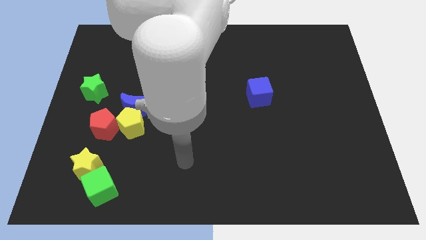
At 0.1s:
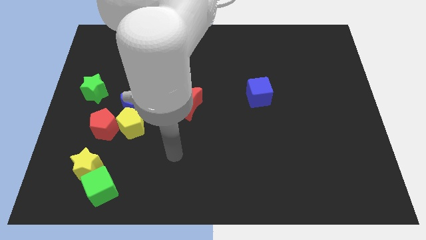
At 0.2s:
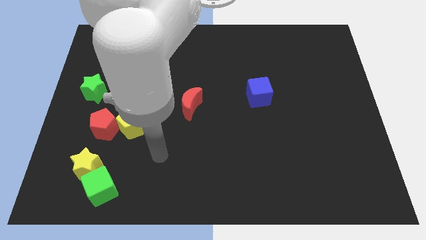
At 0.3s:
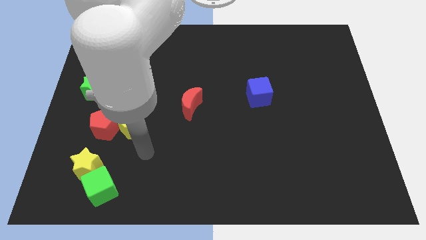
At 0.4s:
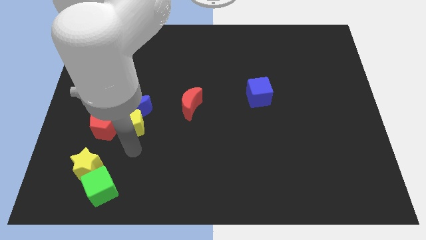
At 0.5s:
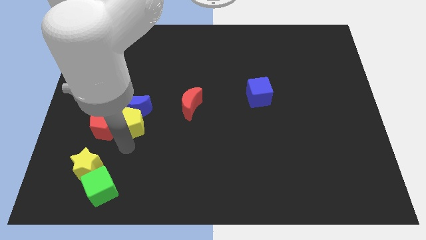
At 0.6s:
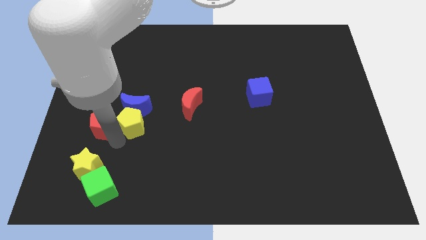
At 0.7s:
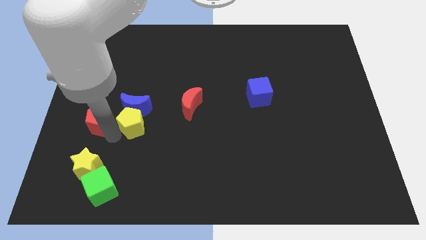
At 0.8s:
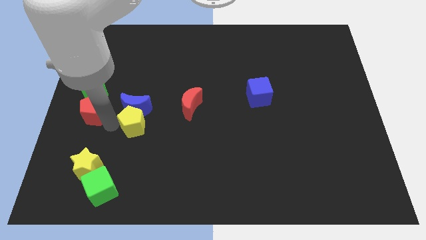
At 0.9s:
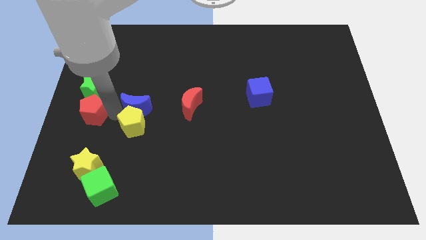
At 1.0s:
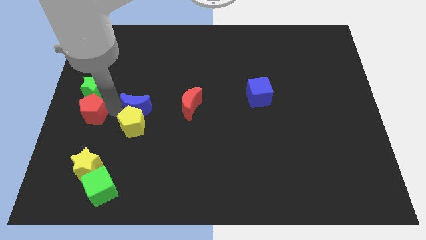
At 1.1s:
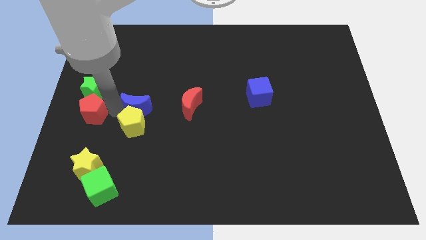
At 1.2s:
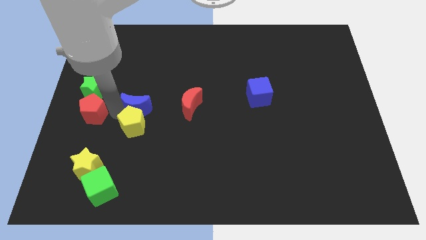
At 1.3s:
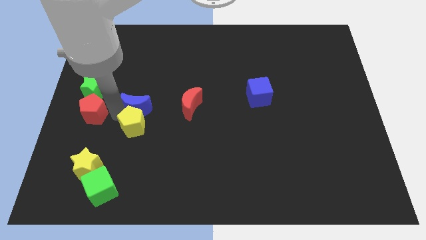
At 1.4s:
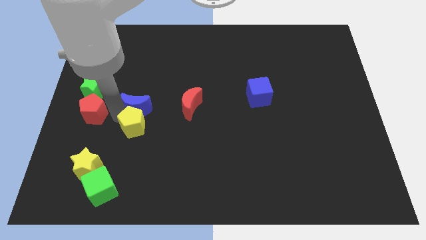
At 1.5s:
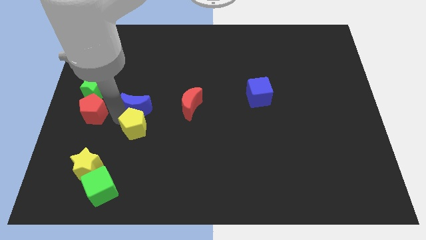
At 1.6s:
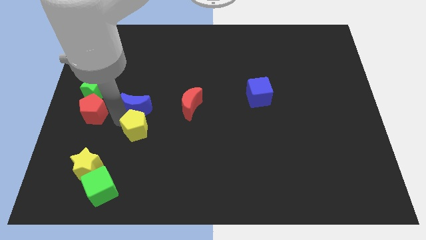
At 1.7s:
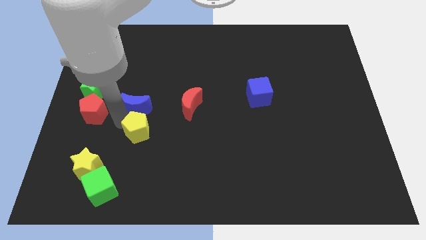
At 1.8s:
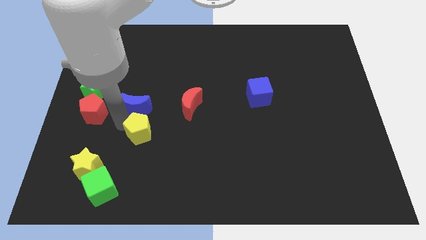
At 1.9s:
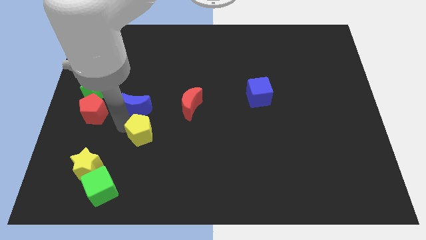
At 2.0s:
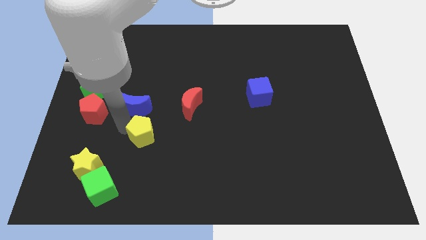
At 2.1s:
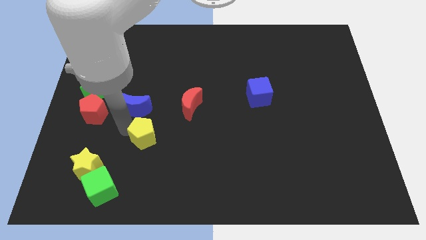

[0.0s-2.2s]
move the yellow pentagon away from the blue moon and red pentagon

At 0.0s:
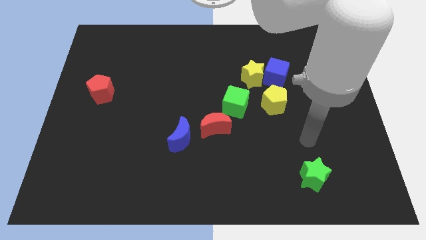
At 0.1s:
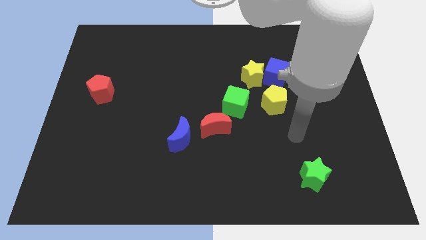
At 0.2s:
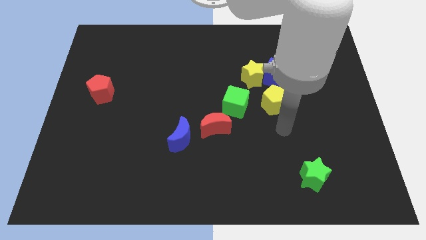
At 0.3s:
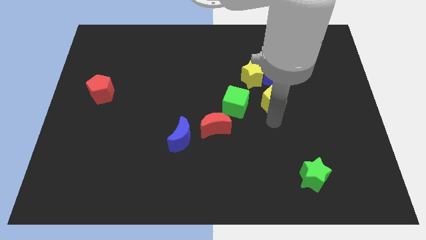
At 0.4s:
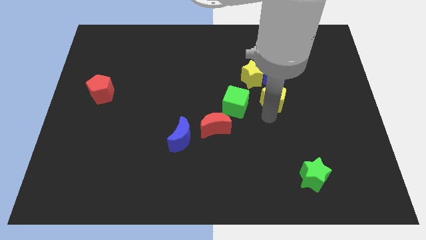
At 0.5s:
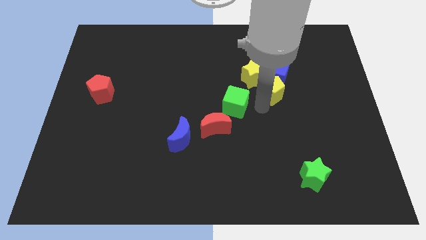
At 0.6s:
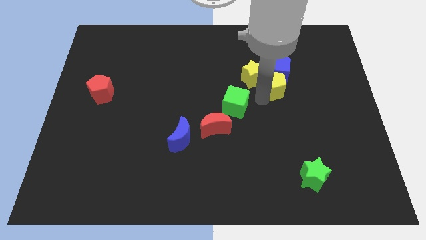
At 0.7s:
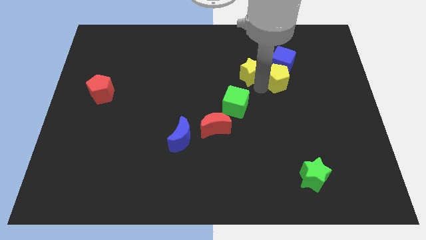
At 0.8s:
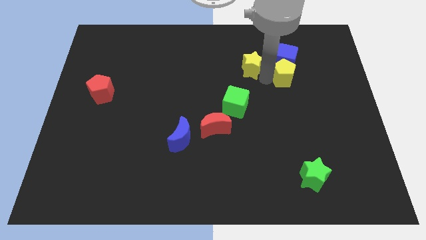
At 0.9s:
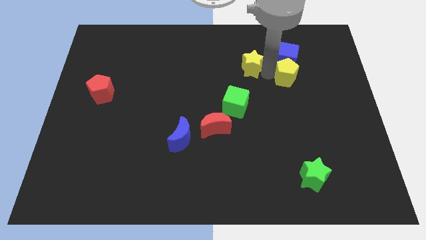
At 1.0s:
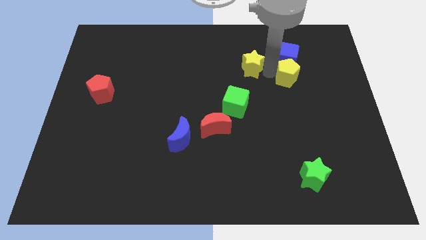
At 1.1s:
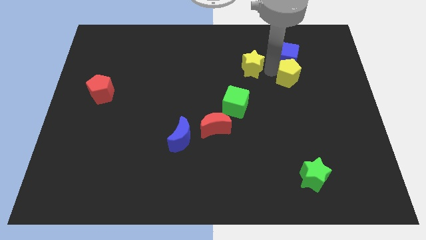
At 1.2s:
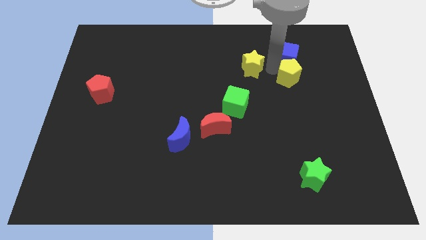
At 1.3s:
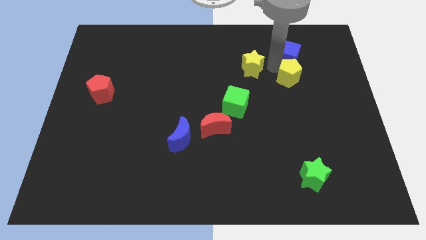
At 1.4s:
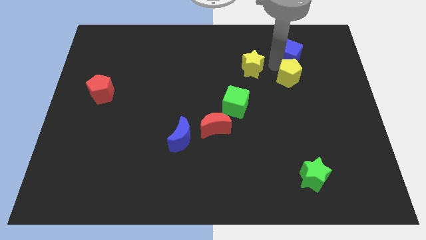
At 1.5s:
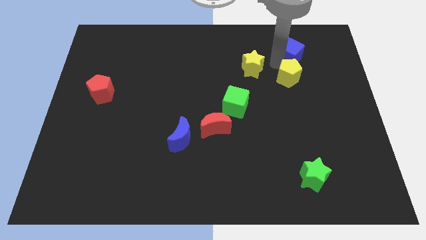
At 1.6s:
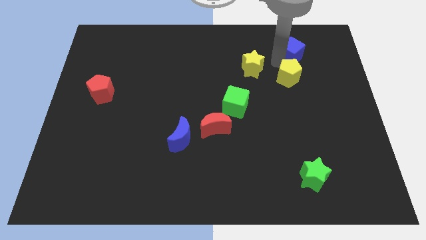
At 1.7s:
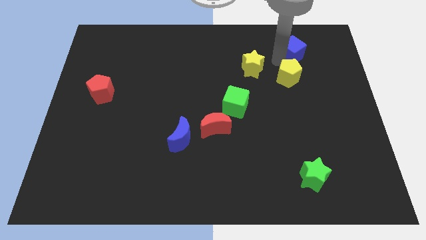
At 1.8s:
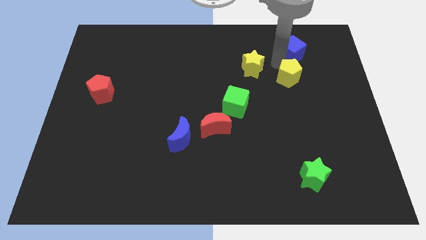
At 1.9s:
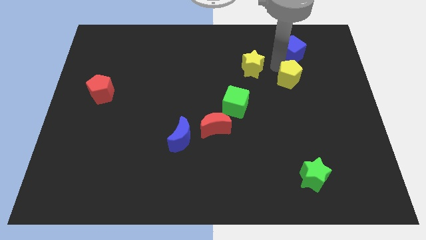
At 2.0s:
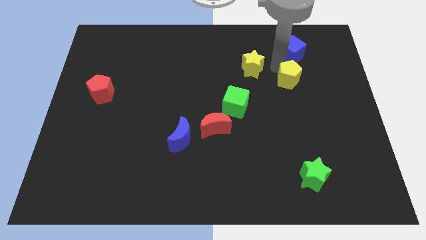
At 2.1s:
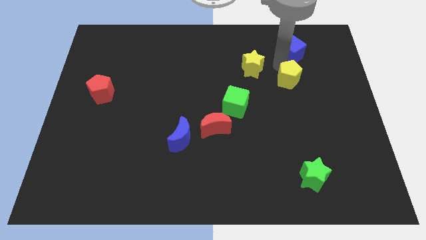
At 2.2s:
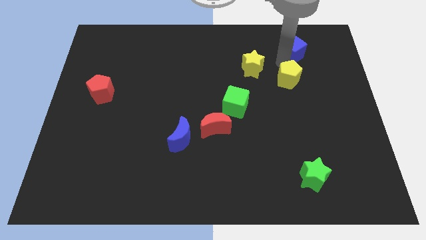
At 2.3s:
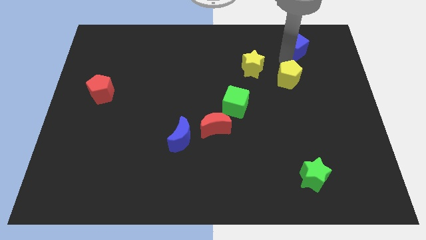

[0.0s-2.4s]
pull the blue cube apart from the yellow star and yellow pentagon

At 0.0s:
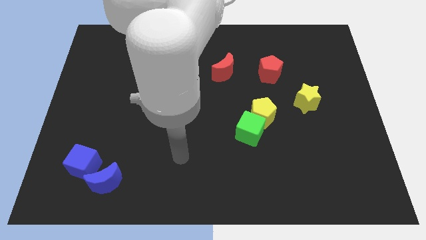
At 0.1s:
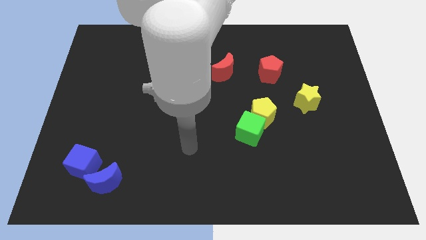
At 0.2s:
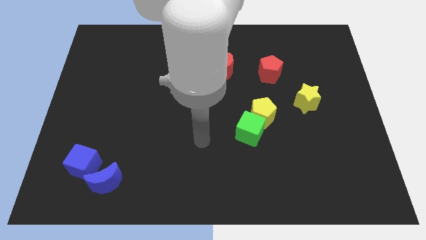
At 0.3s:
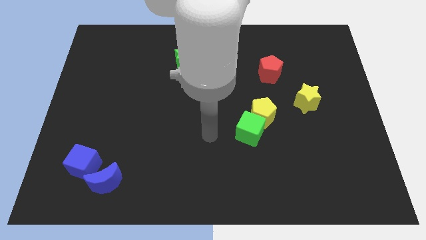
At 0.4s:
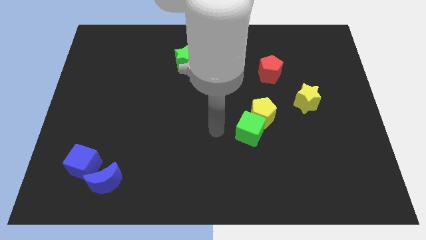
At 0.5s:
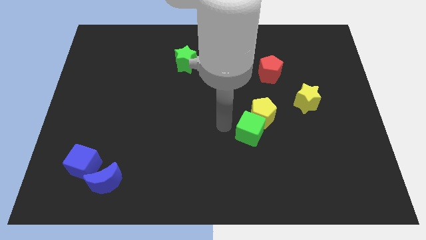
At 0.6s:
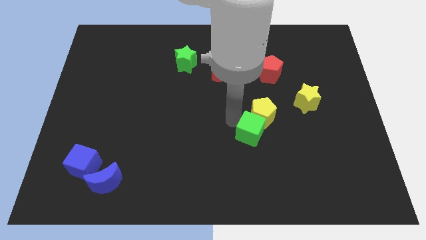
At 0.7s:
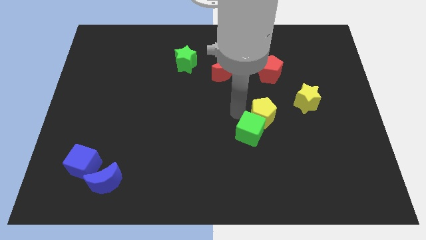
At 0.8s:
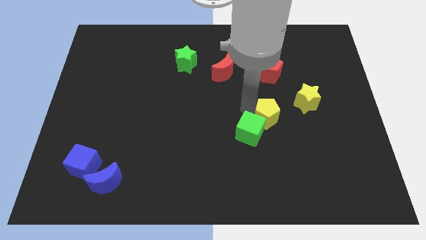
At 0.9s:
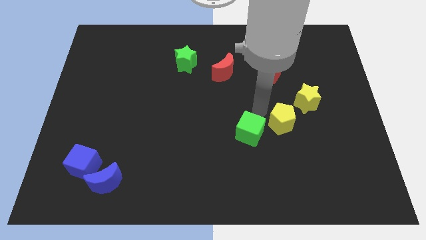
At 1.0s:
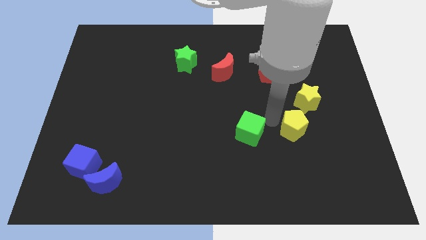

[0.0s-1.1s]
separate the green cube from the yellow pentagon

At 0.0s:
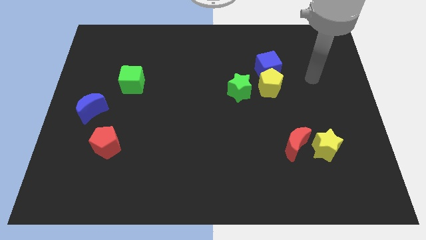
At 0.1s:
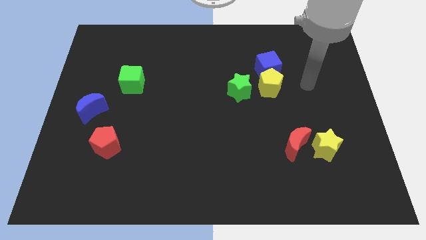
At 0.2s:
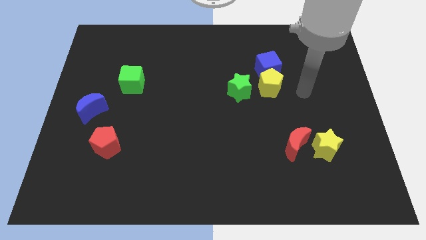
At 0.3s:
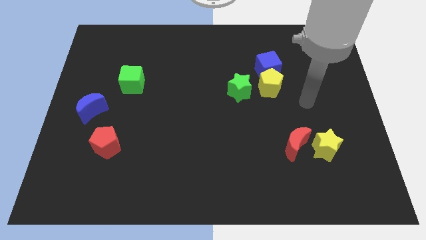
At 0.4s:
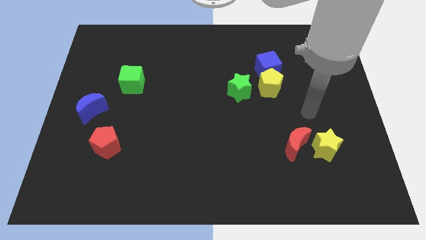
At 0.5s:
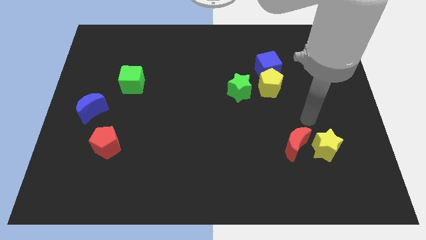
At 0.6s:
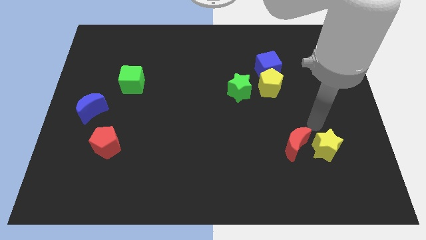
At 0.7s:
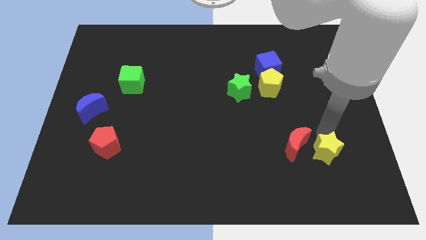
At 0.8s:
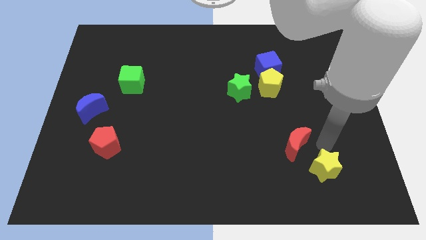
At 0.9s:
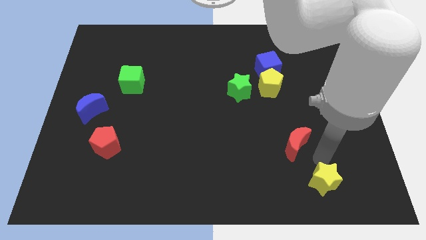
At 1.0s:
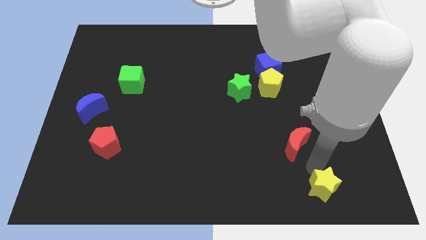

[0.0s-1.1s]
separate the red moon from the yellow star

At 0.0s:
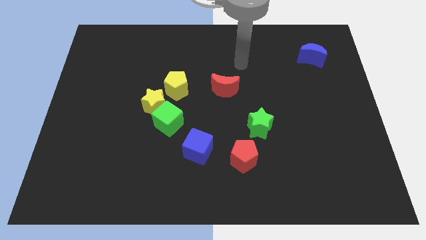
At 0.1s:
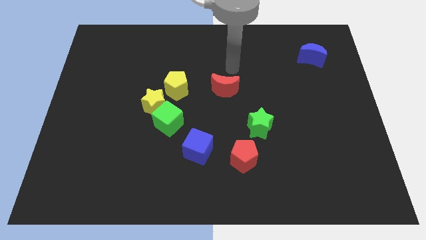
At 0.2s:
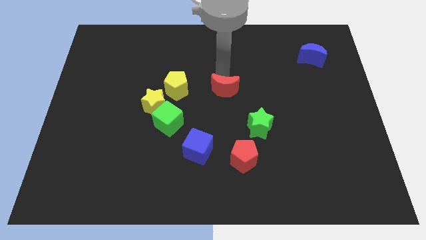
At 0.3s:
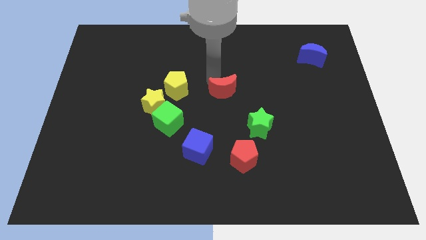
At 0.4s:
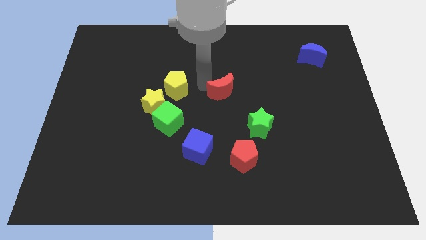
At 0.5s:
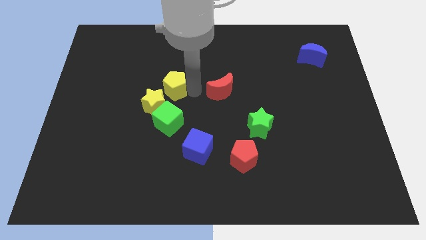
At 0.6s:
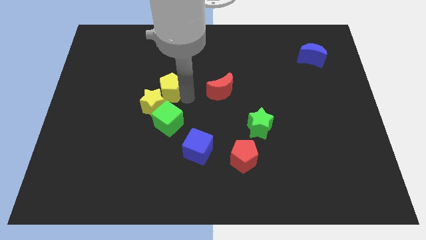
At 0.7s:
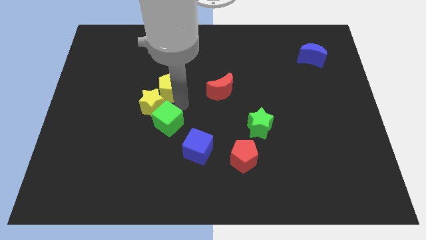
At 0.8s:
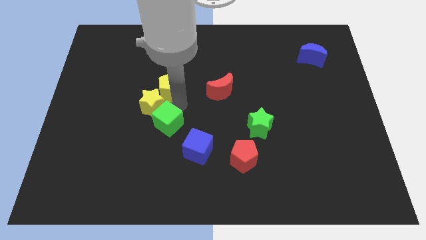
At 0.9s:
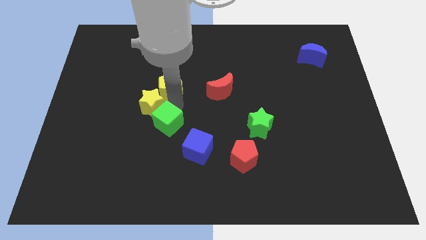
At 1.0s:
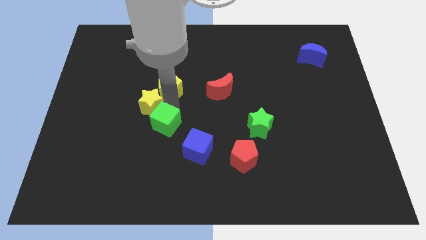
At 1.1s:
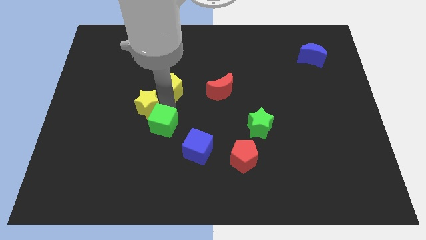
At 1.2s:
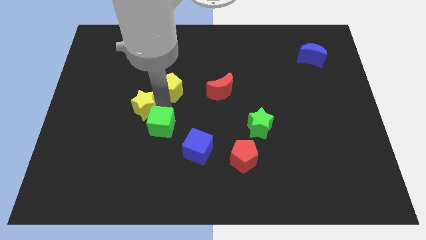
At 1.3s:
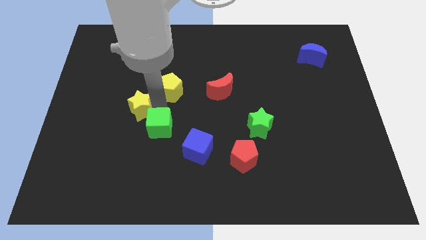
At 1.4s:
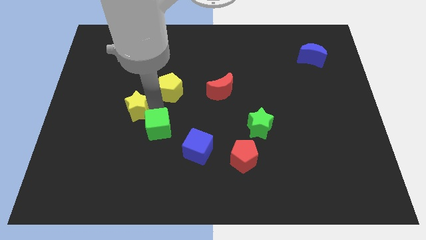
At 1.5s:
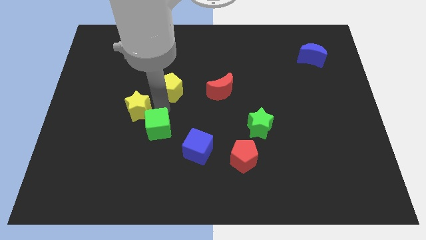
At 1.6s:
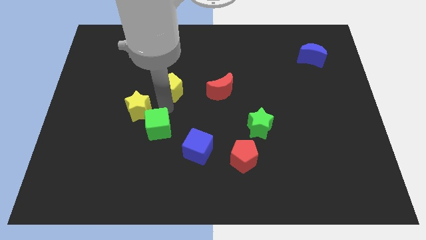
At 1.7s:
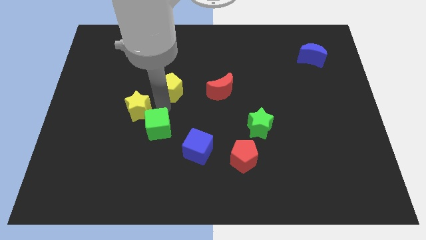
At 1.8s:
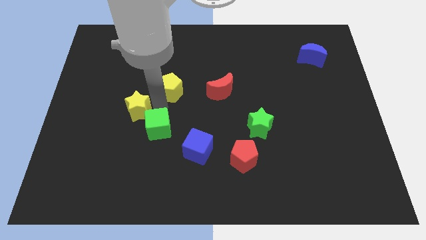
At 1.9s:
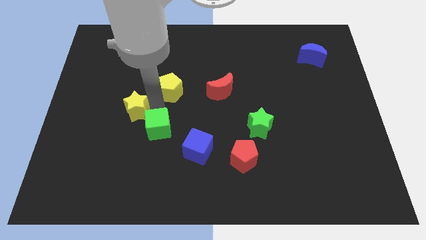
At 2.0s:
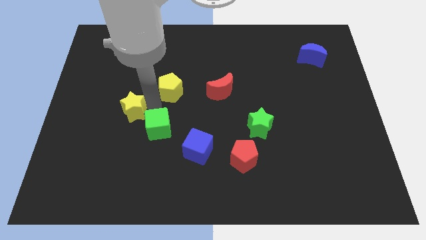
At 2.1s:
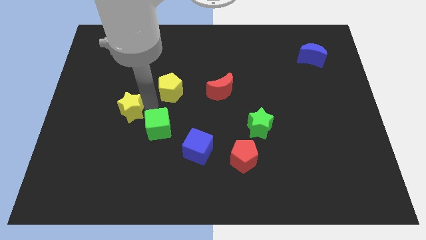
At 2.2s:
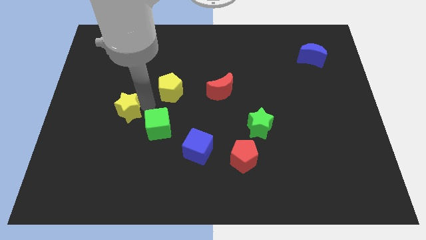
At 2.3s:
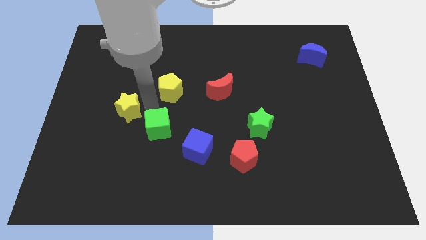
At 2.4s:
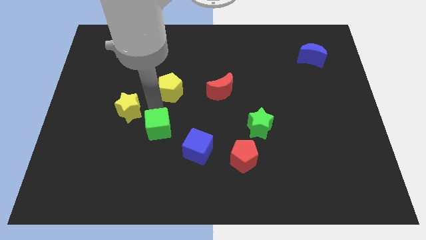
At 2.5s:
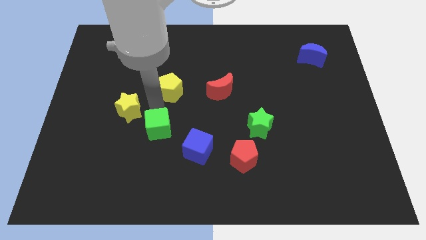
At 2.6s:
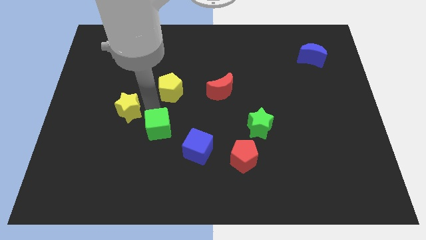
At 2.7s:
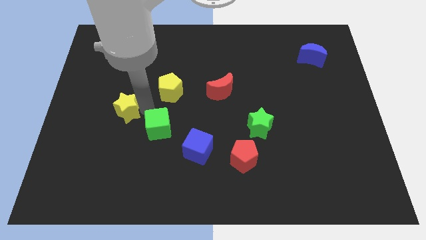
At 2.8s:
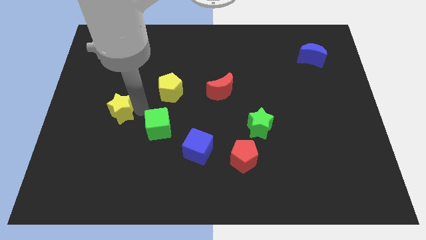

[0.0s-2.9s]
move the yellow star away from the green cube and yellow pentagon
